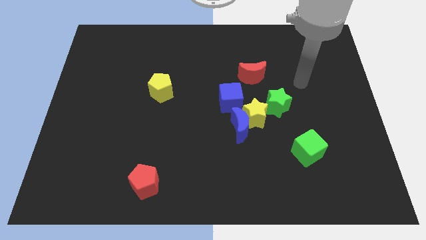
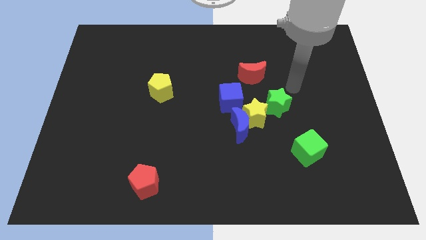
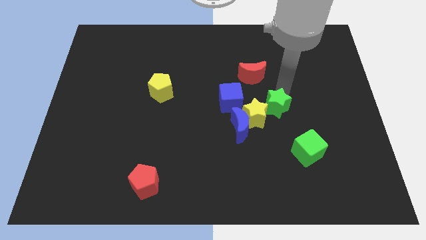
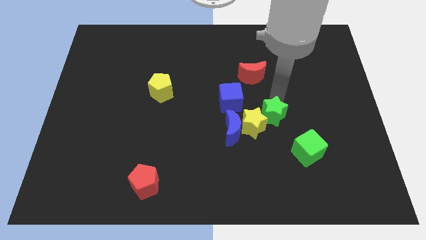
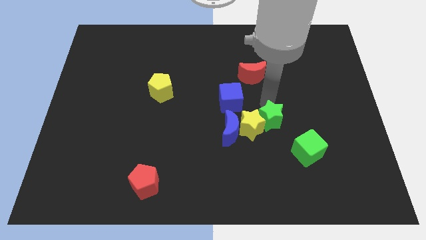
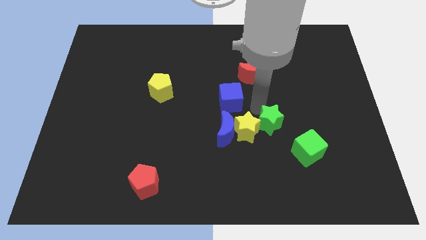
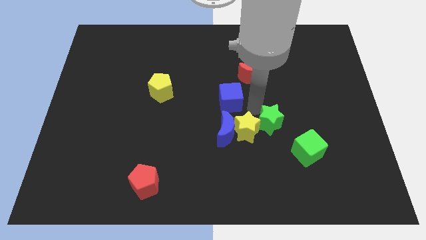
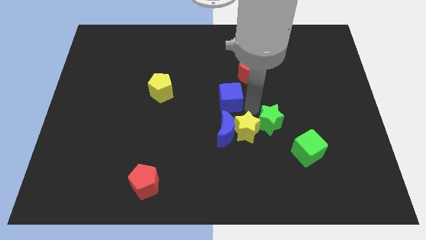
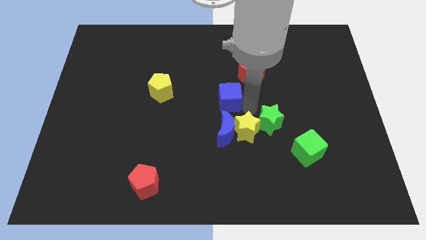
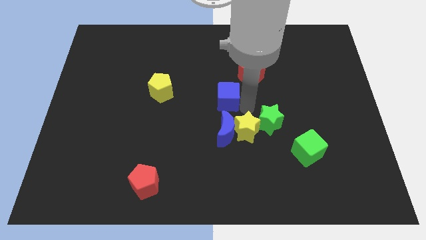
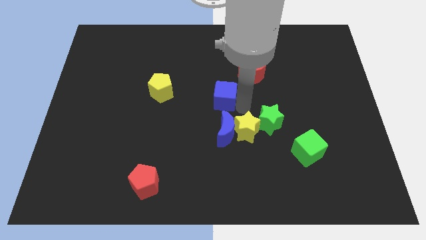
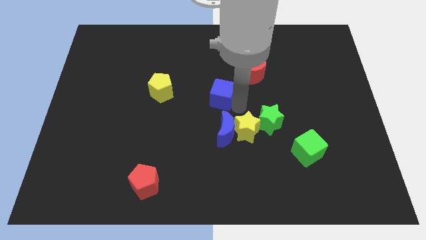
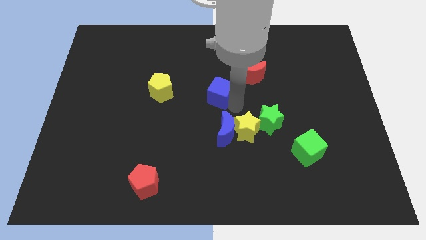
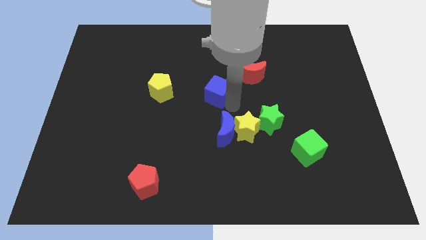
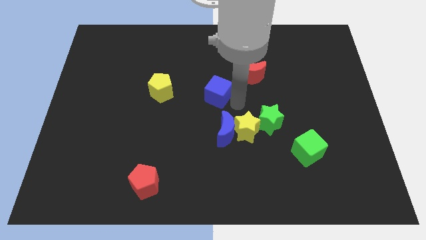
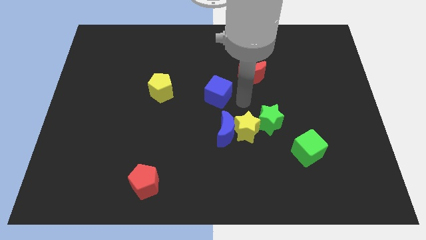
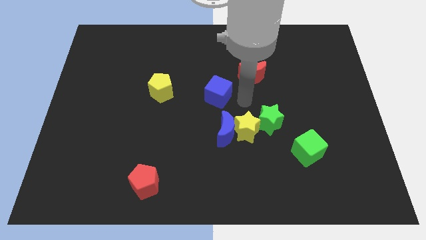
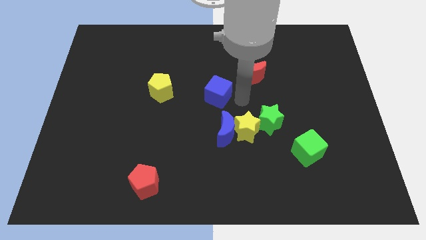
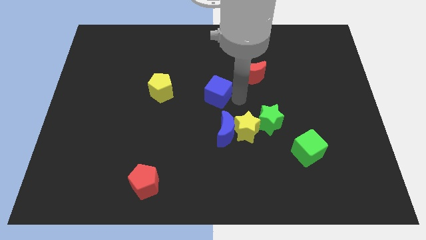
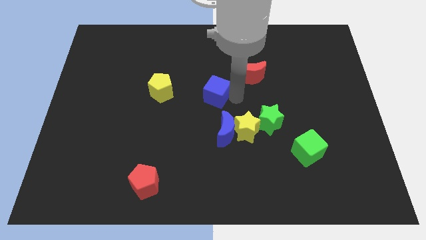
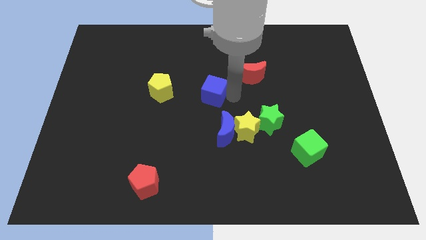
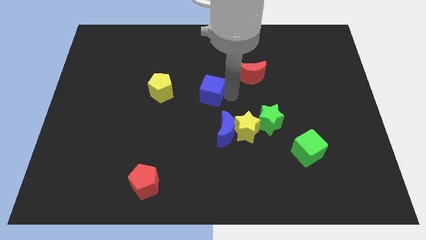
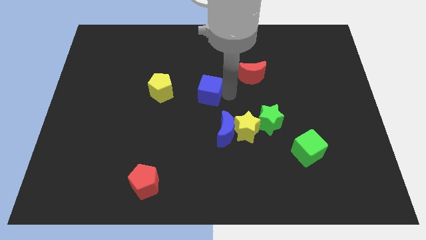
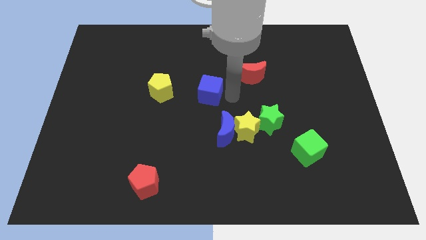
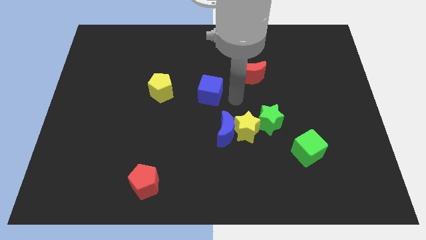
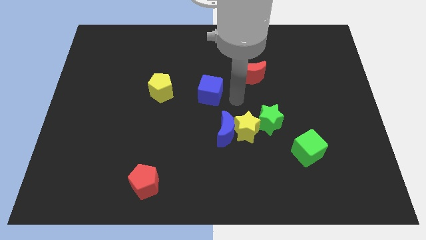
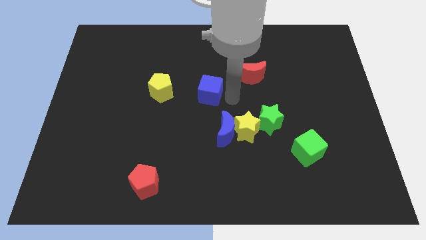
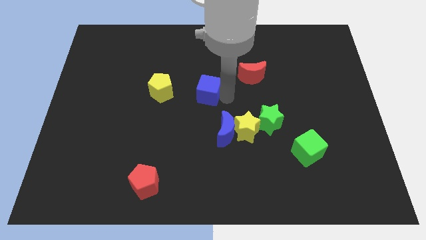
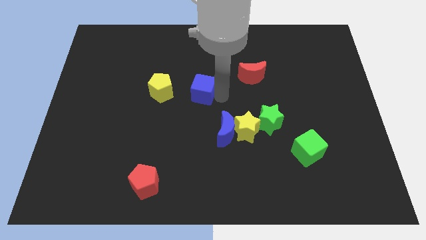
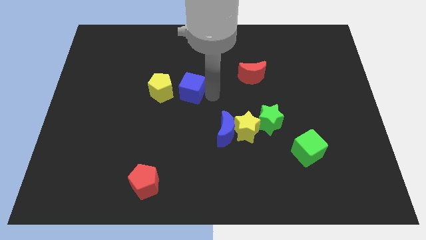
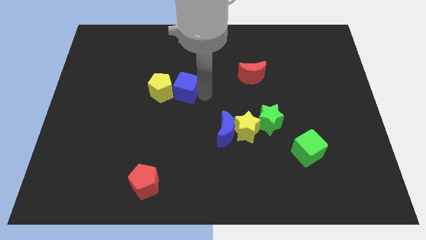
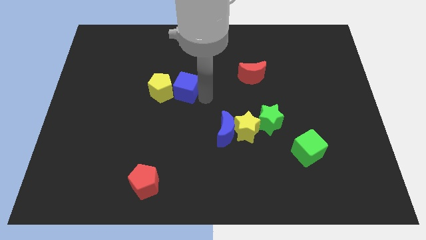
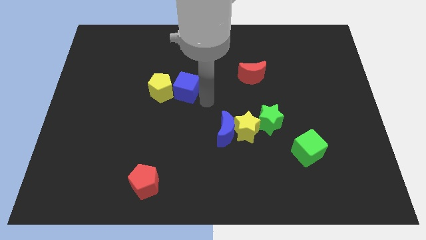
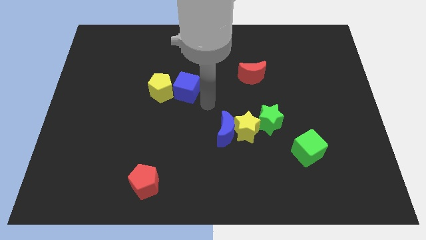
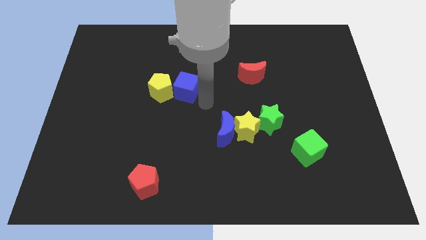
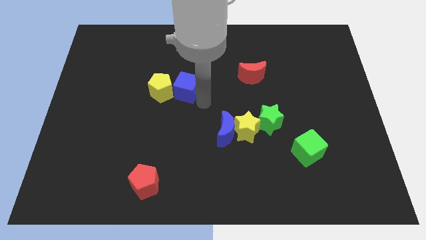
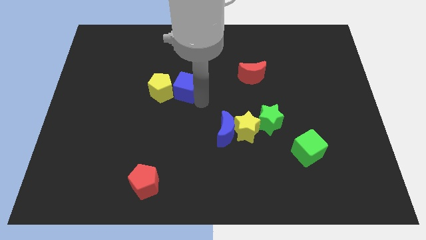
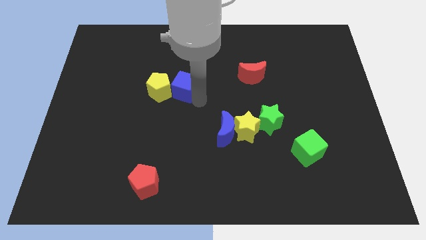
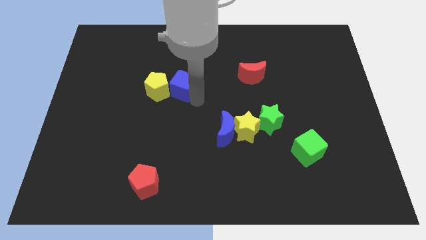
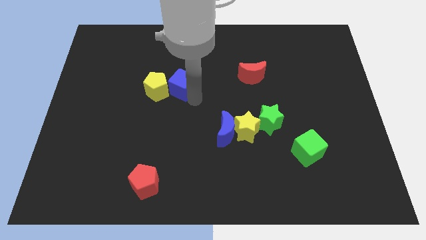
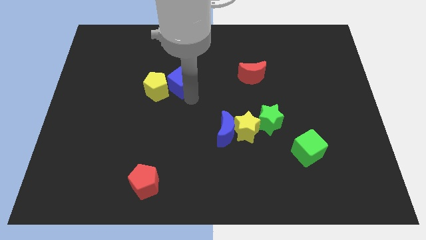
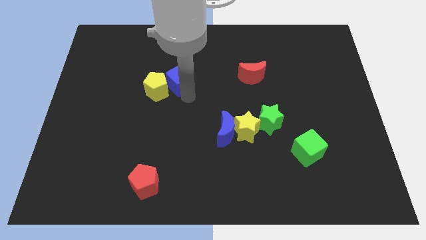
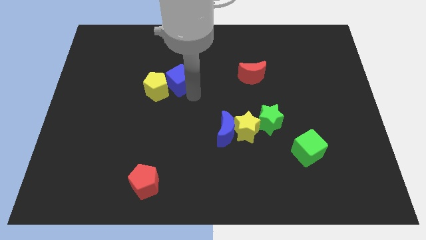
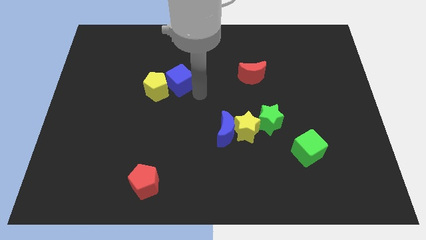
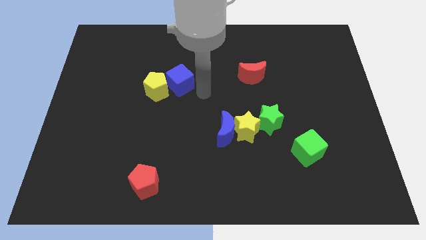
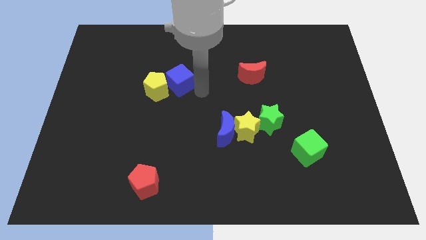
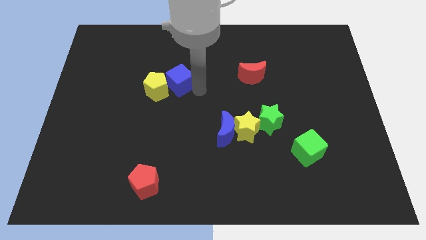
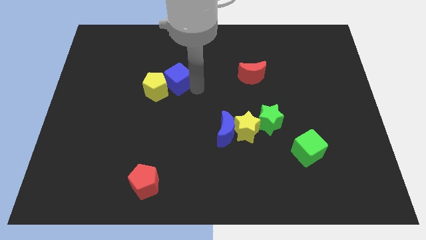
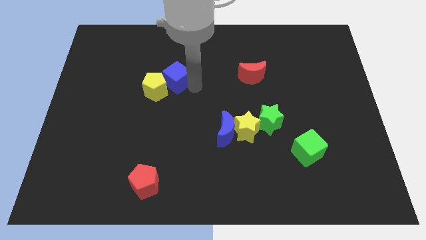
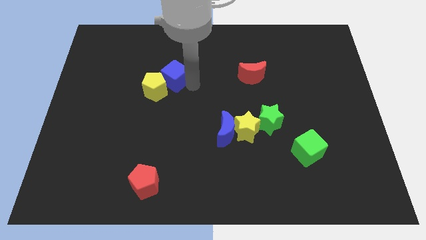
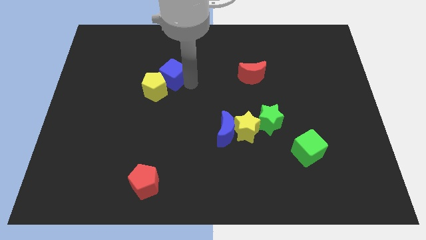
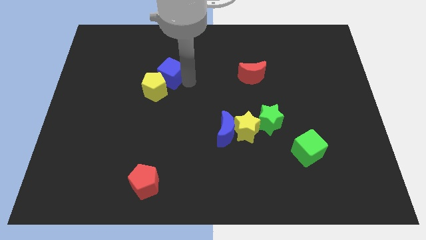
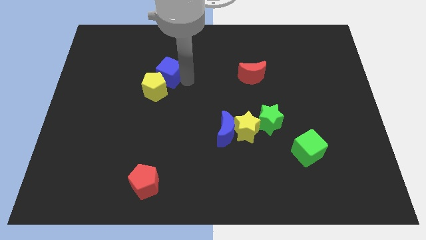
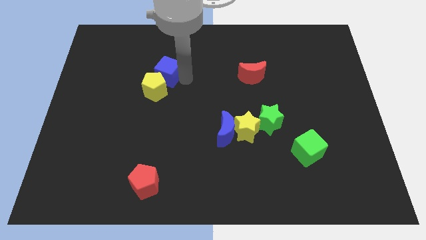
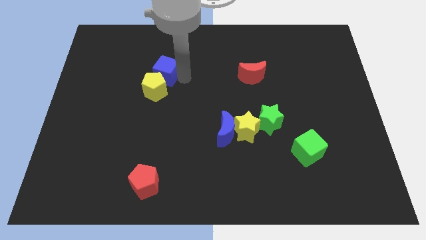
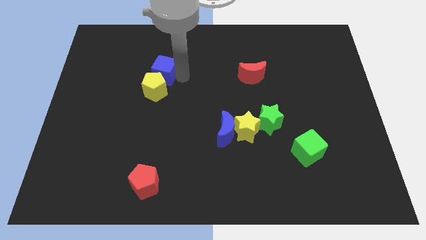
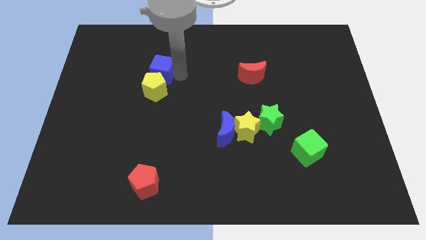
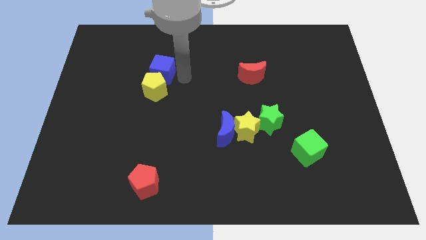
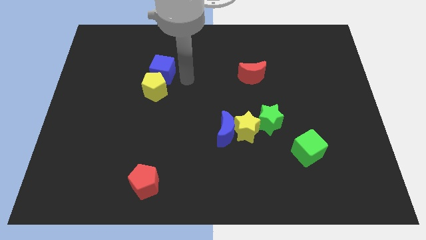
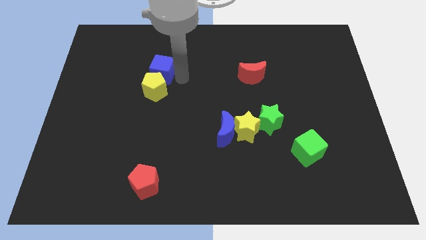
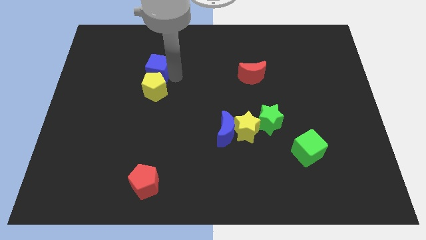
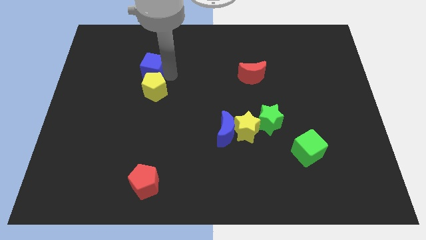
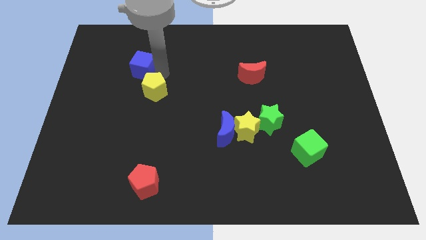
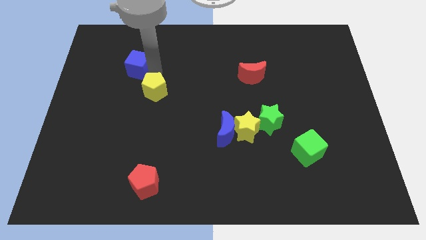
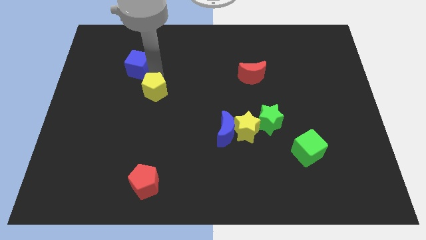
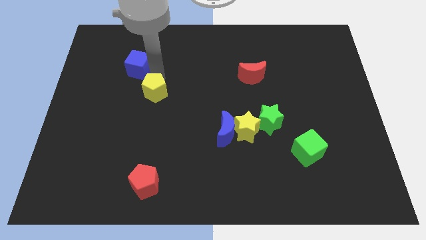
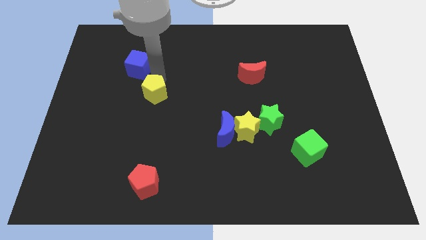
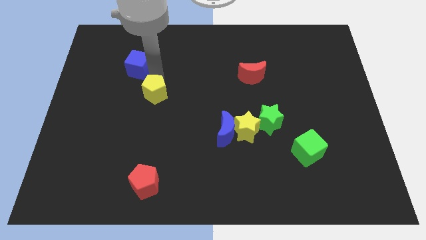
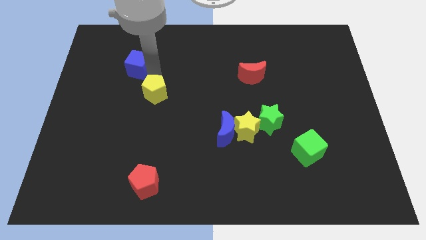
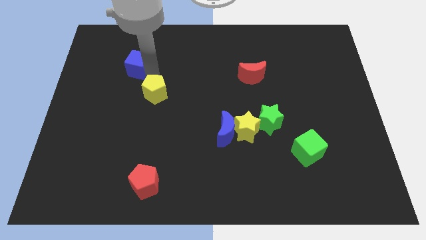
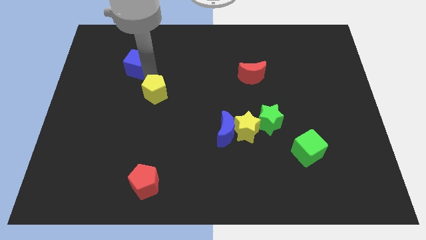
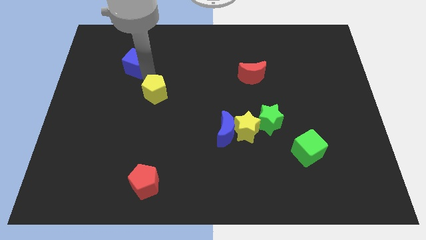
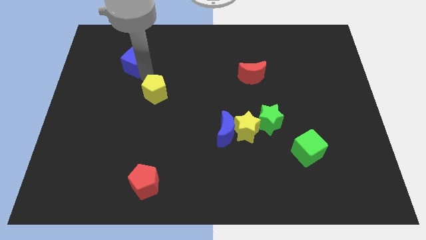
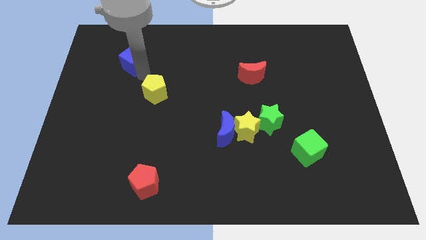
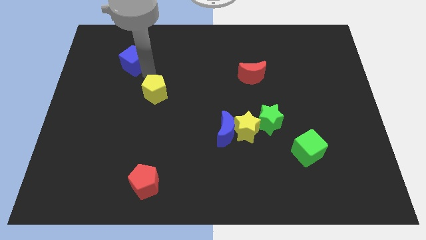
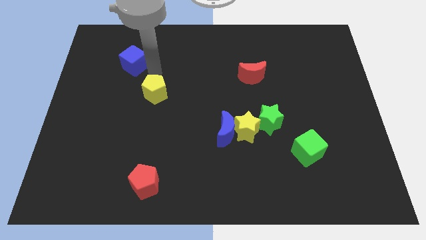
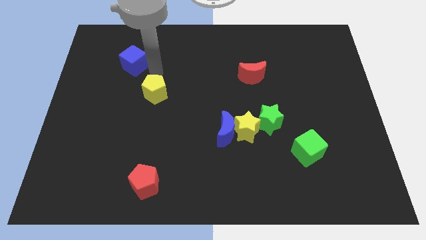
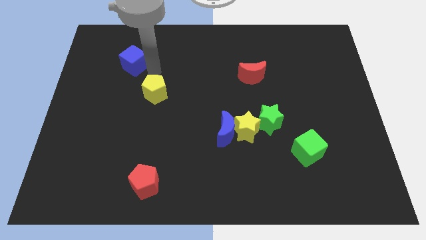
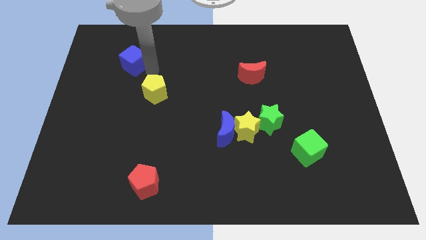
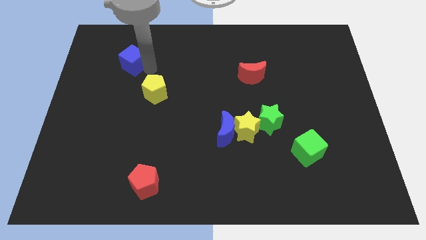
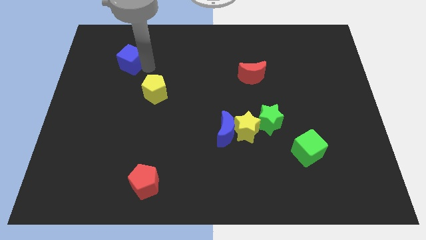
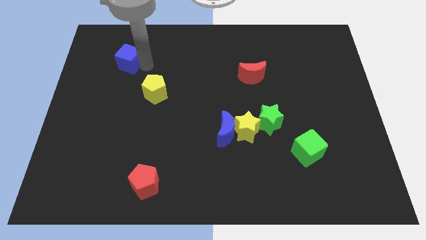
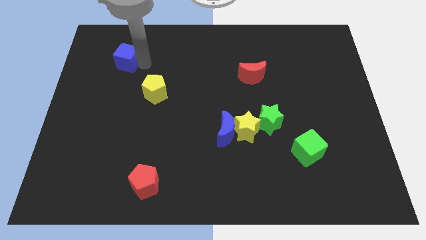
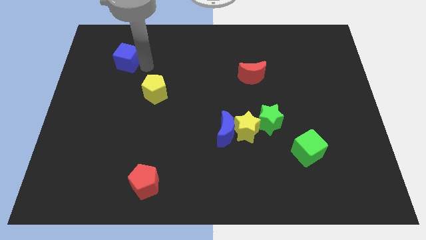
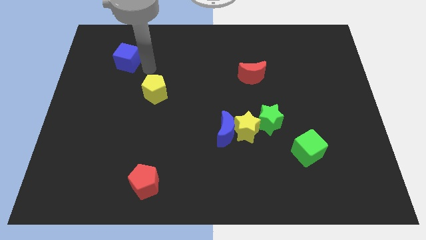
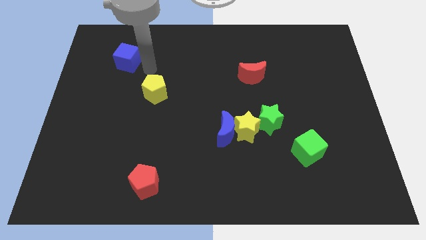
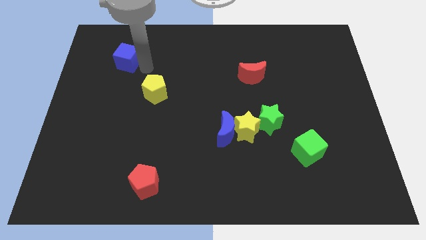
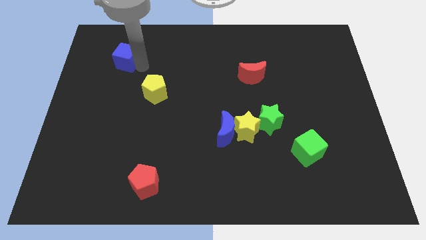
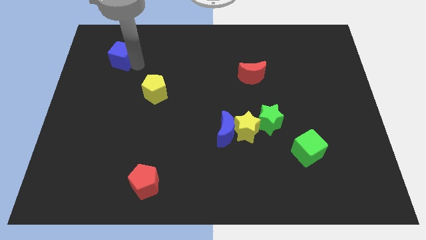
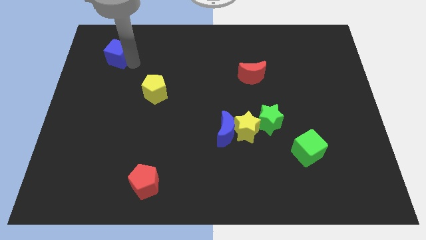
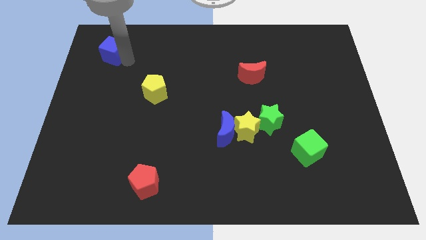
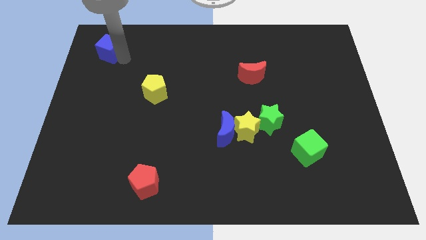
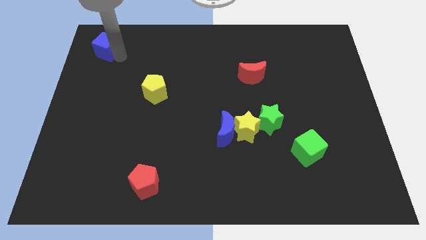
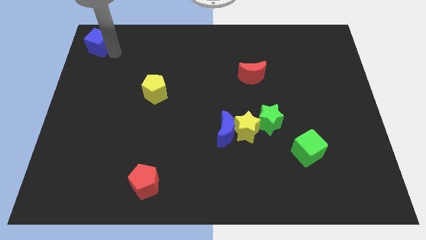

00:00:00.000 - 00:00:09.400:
push the blue cube to the top left of the board
